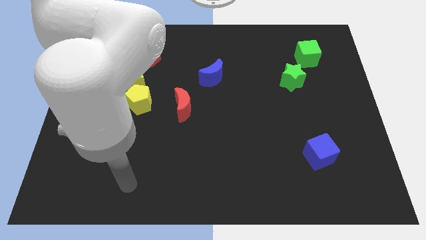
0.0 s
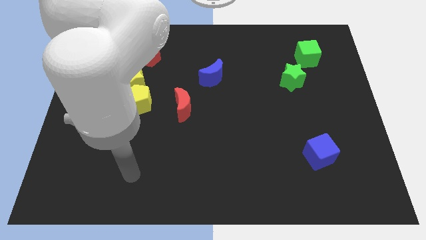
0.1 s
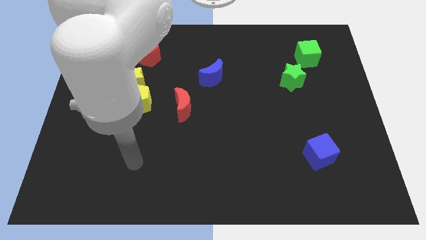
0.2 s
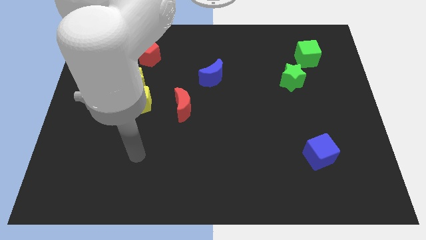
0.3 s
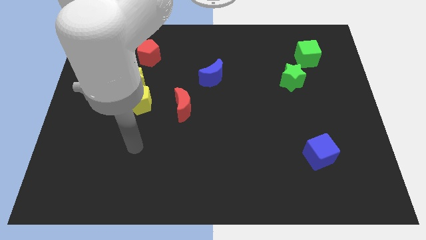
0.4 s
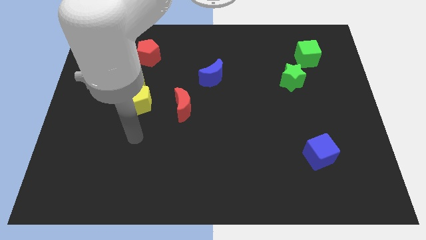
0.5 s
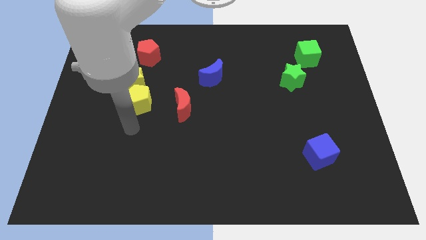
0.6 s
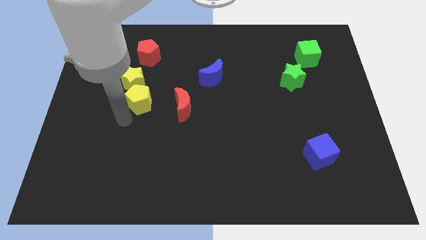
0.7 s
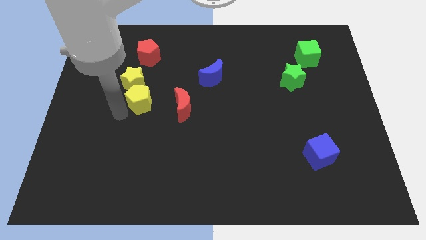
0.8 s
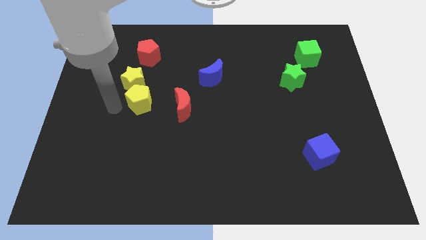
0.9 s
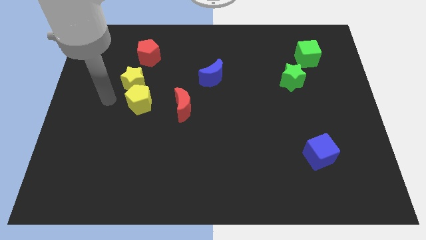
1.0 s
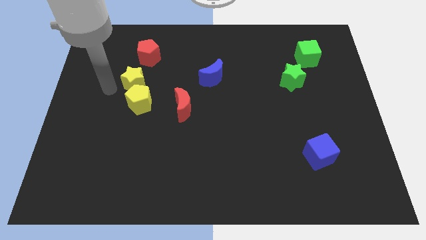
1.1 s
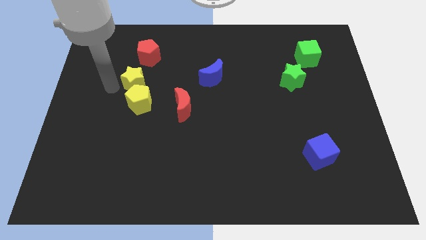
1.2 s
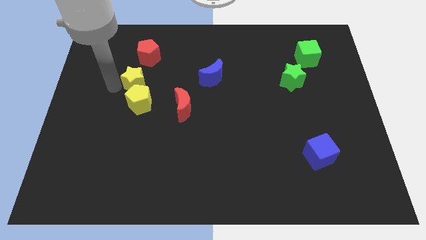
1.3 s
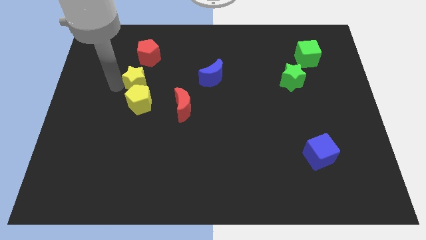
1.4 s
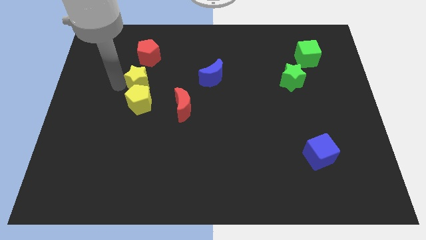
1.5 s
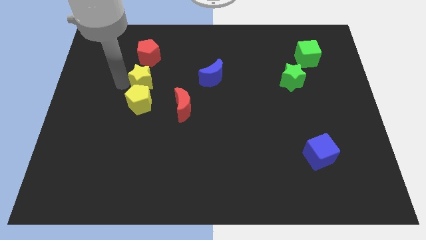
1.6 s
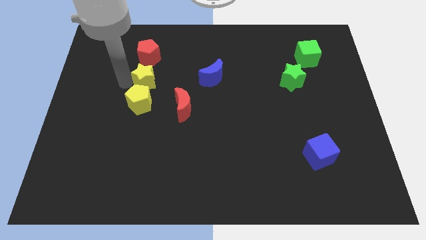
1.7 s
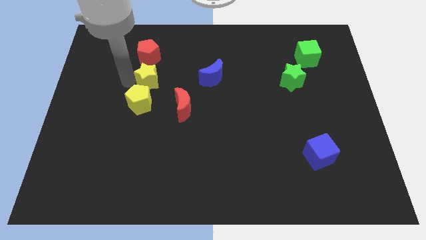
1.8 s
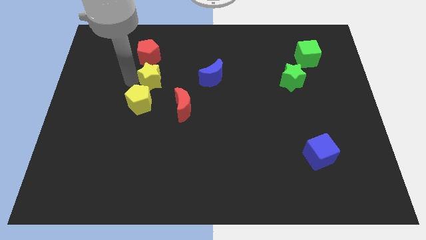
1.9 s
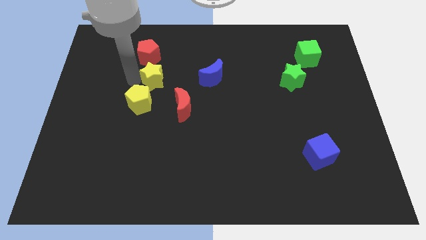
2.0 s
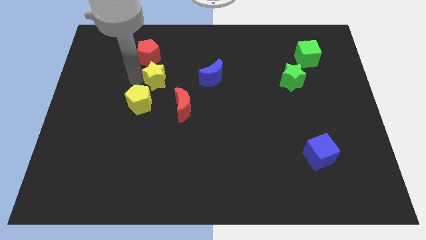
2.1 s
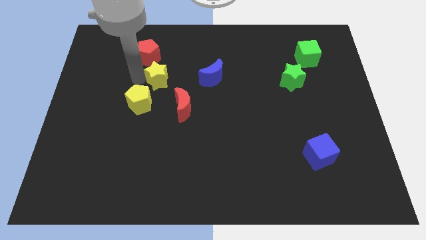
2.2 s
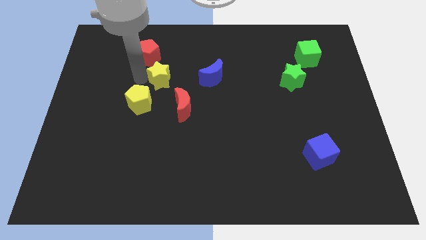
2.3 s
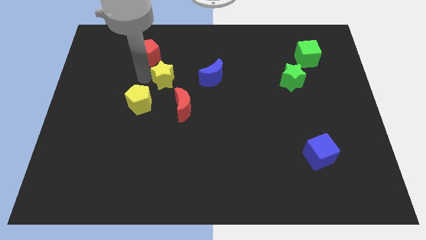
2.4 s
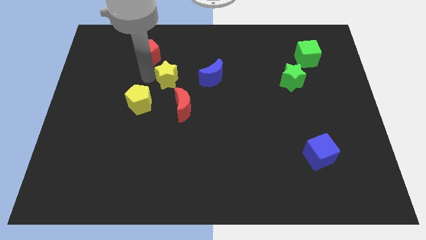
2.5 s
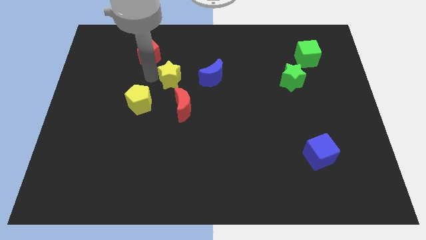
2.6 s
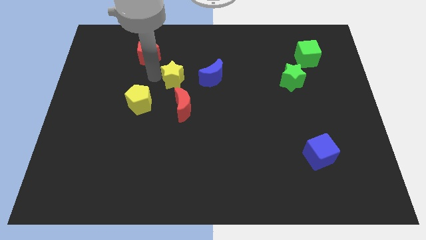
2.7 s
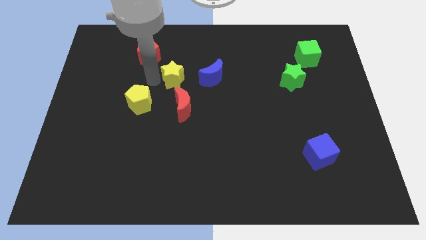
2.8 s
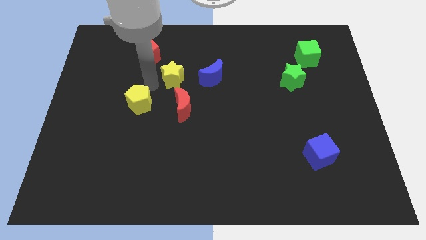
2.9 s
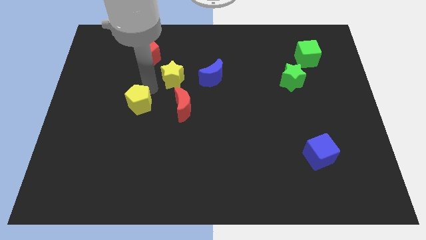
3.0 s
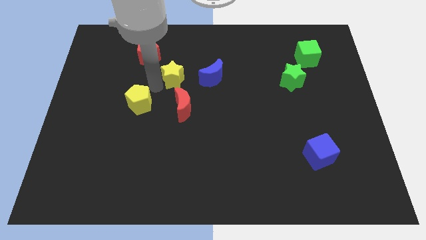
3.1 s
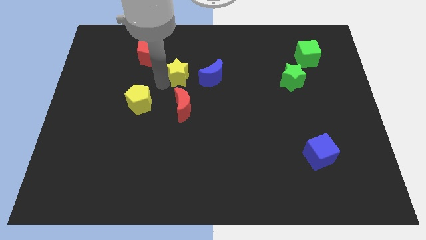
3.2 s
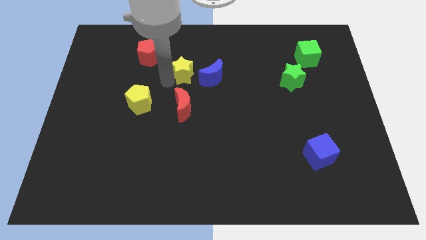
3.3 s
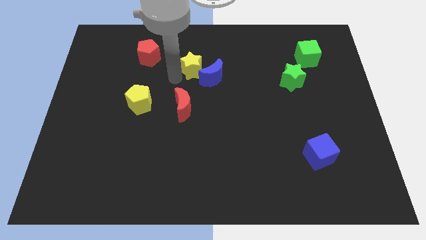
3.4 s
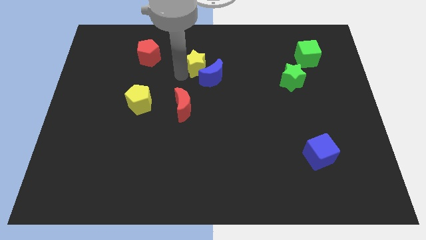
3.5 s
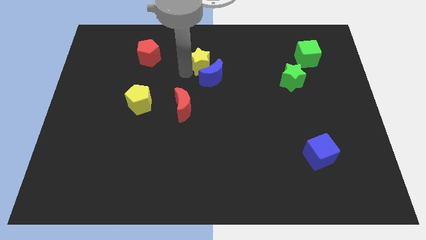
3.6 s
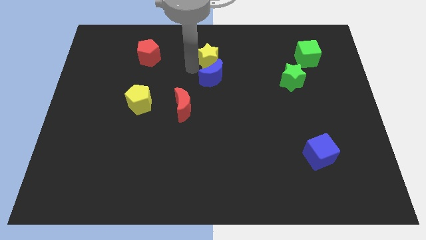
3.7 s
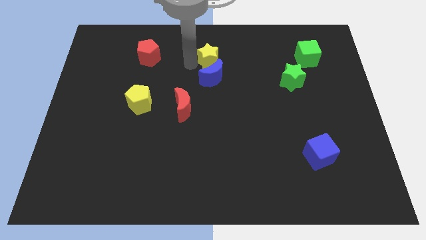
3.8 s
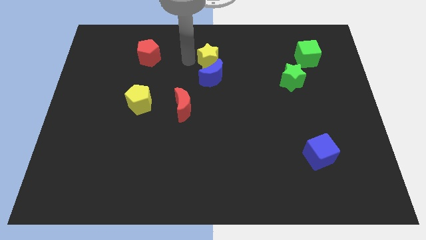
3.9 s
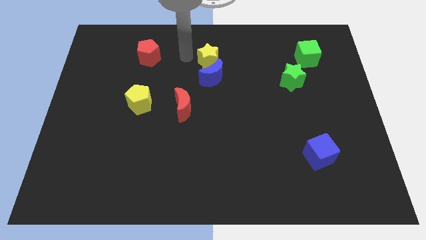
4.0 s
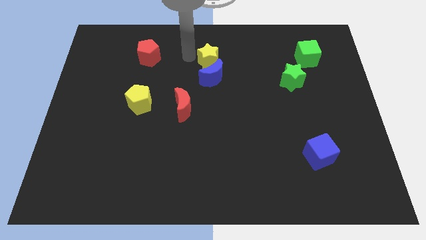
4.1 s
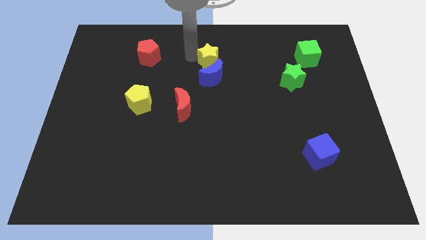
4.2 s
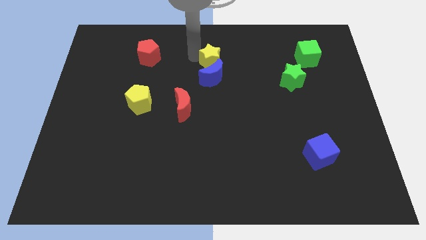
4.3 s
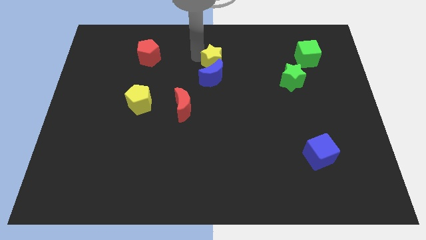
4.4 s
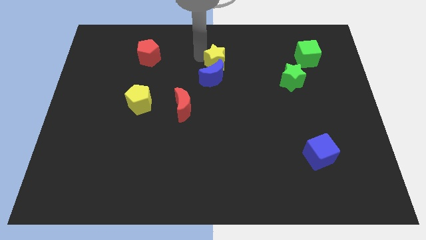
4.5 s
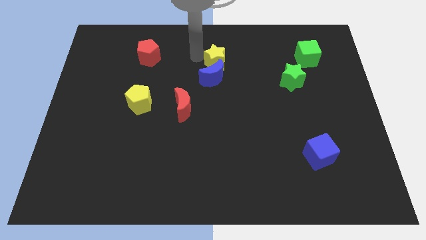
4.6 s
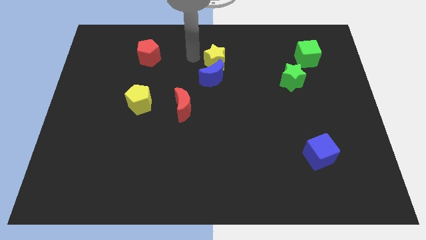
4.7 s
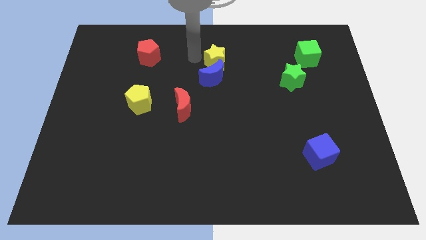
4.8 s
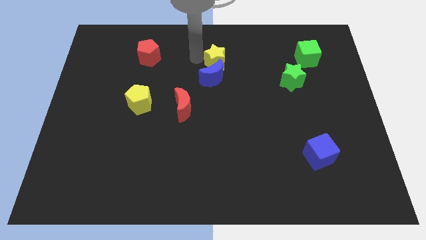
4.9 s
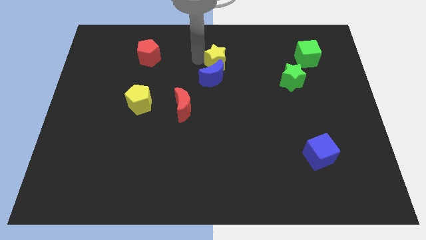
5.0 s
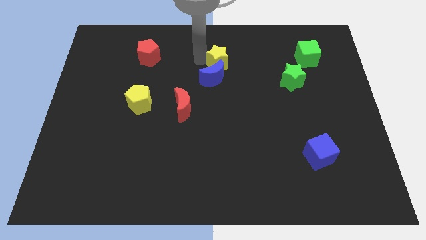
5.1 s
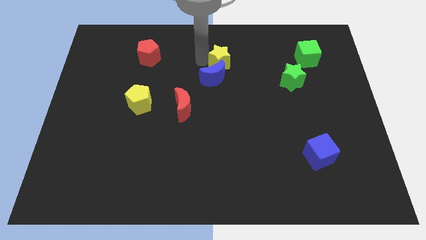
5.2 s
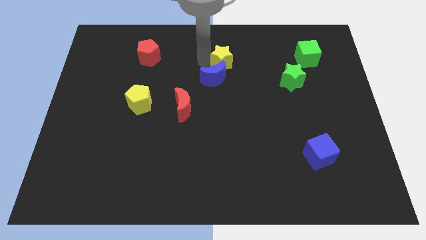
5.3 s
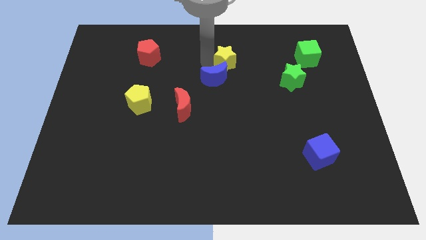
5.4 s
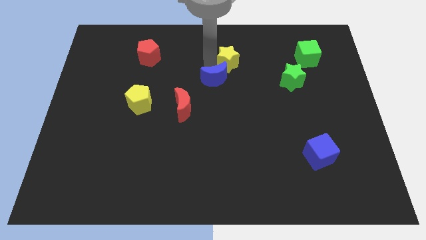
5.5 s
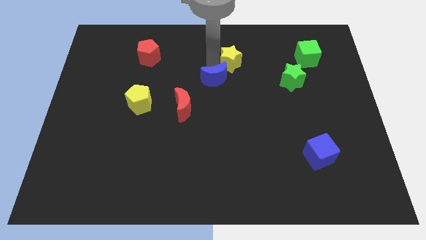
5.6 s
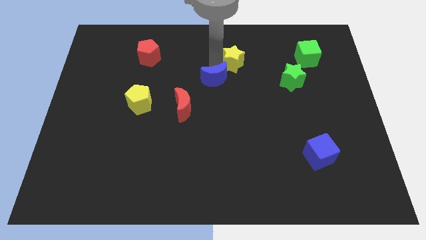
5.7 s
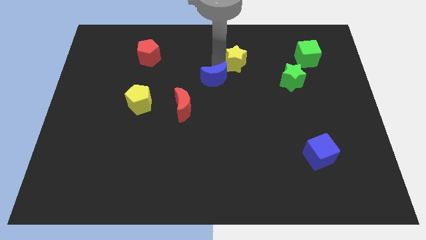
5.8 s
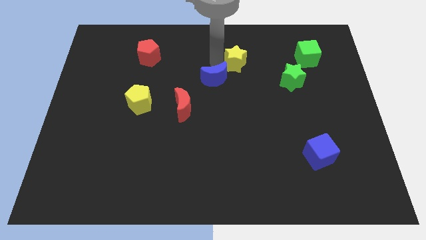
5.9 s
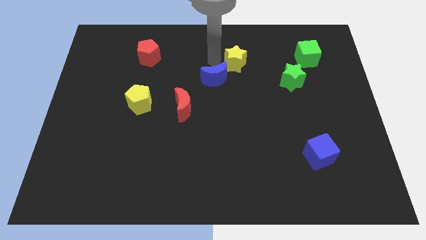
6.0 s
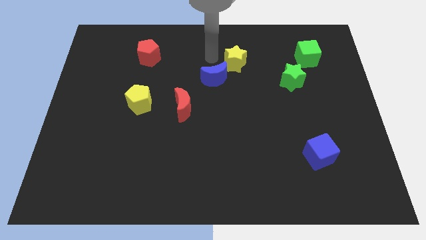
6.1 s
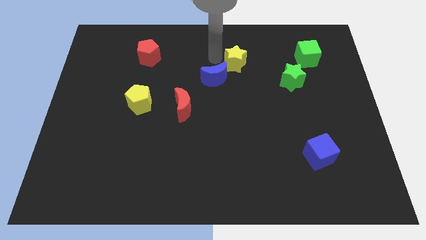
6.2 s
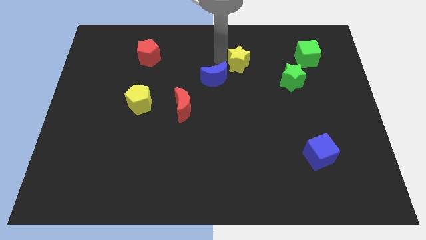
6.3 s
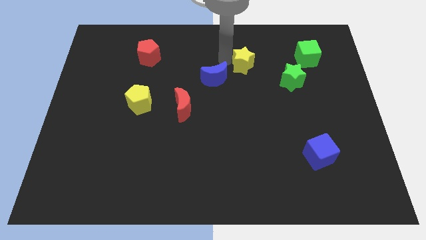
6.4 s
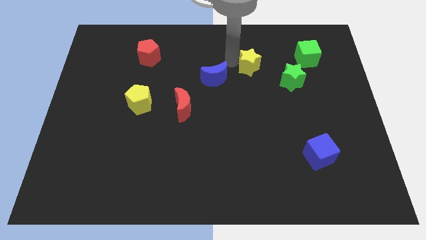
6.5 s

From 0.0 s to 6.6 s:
move the yellow star diagonally up and to the left of the green star

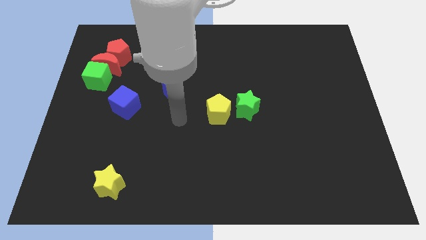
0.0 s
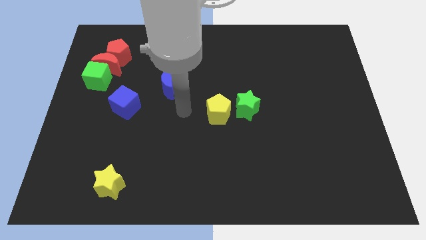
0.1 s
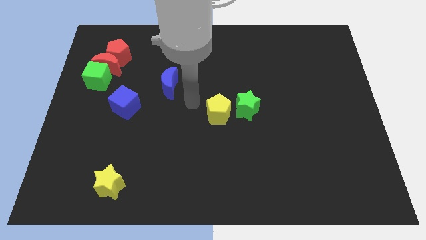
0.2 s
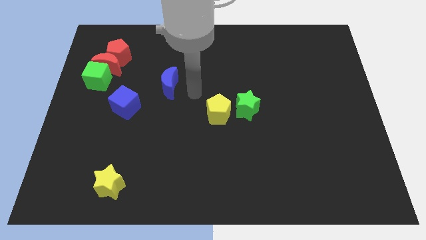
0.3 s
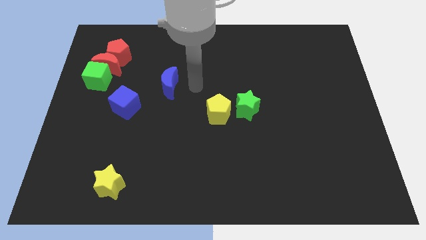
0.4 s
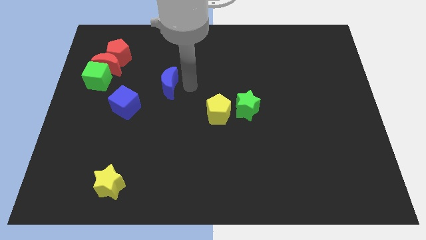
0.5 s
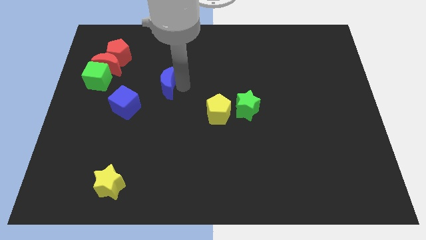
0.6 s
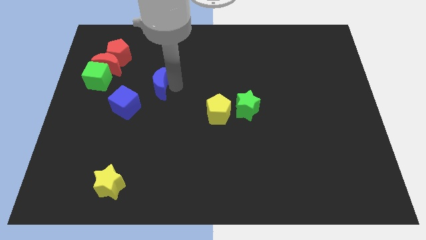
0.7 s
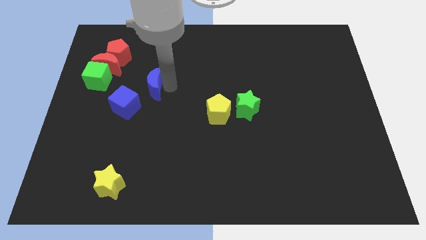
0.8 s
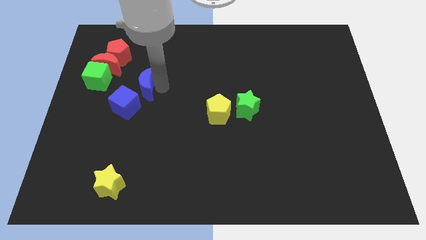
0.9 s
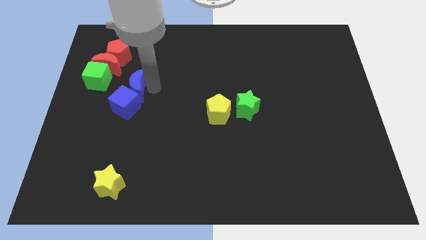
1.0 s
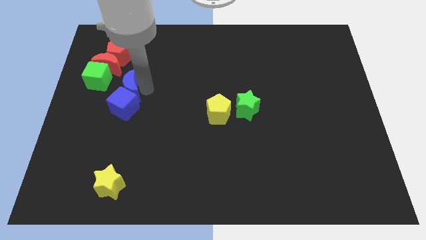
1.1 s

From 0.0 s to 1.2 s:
put the blue moon to the bottom side of the red pentagon
